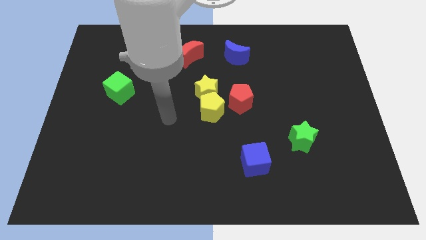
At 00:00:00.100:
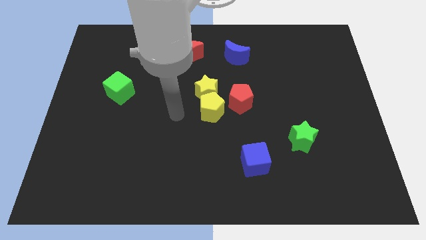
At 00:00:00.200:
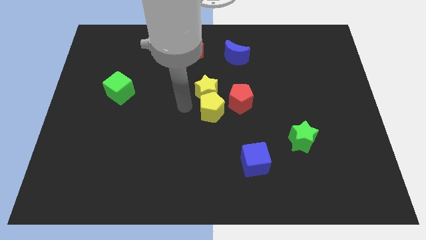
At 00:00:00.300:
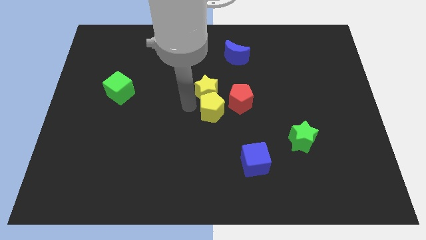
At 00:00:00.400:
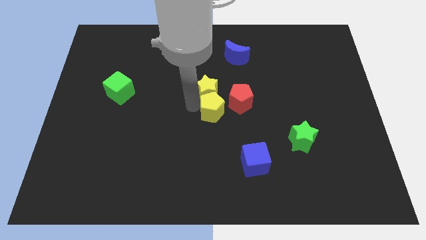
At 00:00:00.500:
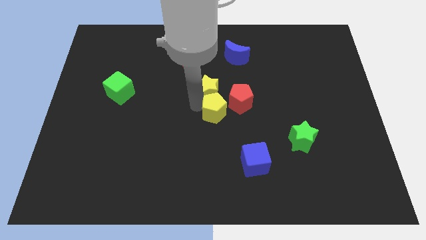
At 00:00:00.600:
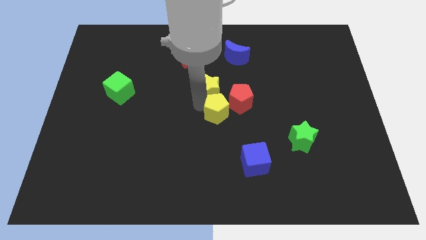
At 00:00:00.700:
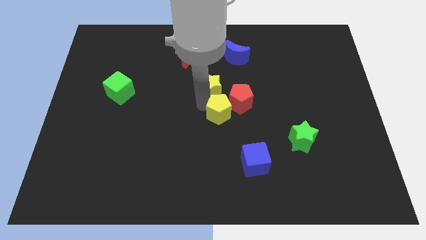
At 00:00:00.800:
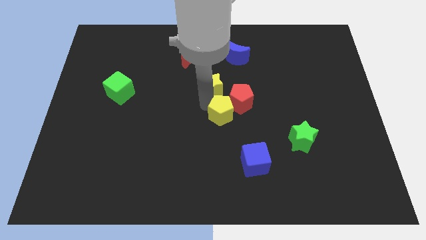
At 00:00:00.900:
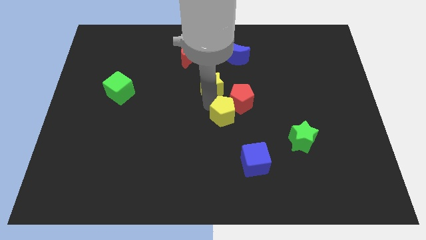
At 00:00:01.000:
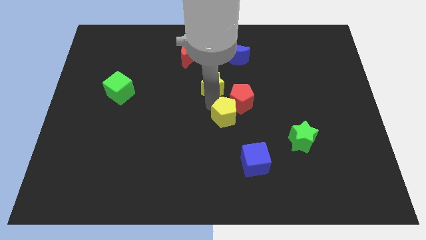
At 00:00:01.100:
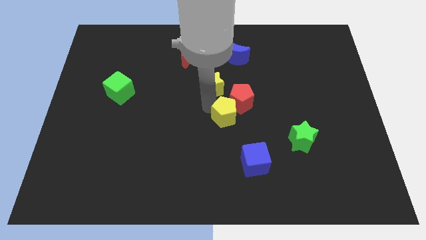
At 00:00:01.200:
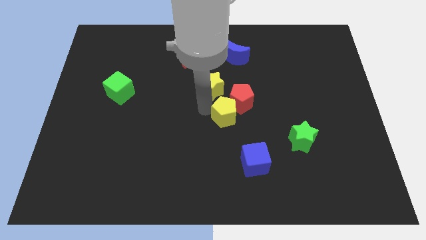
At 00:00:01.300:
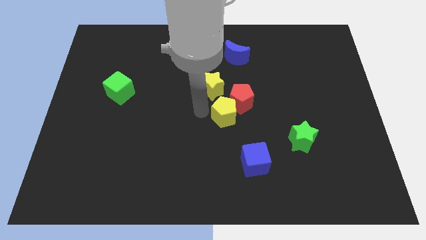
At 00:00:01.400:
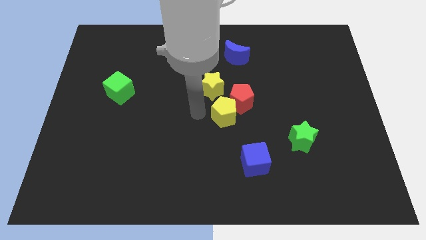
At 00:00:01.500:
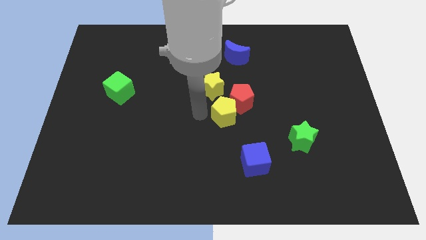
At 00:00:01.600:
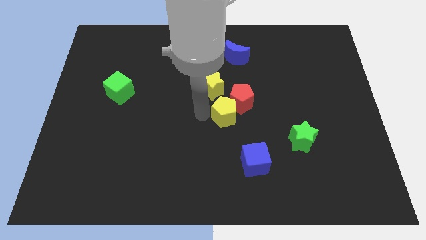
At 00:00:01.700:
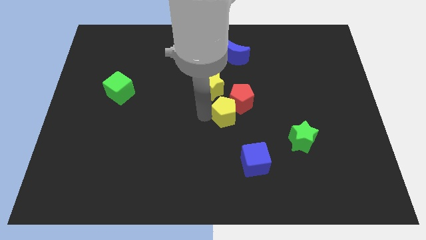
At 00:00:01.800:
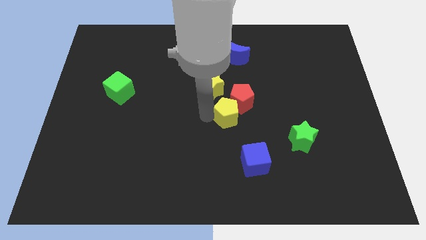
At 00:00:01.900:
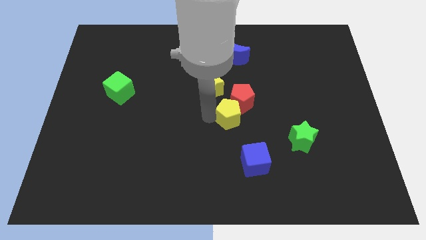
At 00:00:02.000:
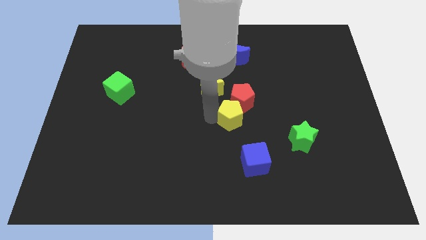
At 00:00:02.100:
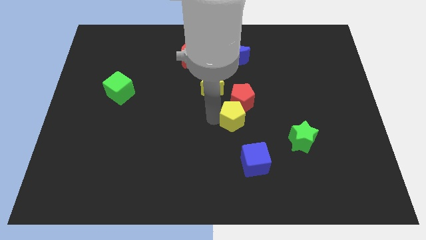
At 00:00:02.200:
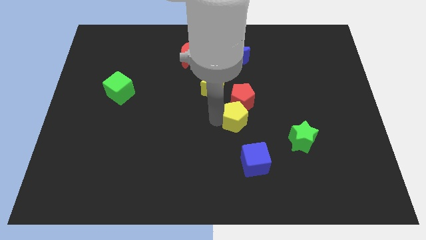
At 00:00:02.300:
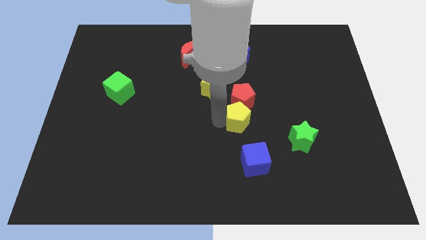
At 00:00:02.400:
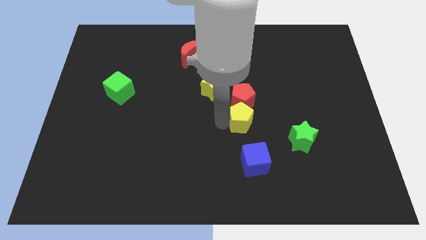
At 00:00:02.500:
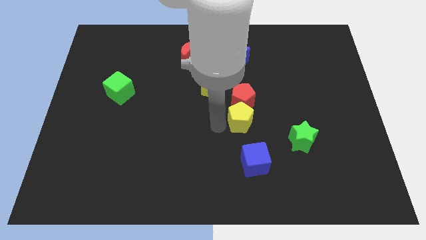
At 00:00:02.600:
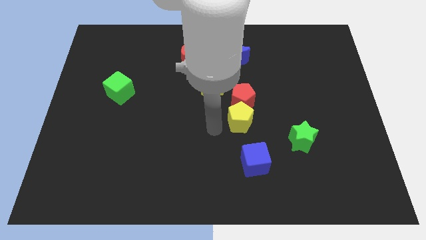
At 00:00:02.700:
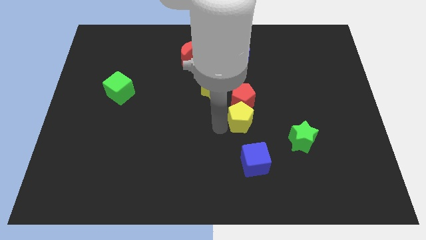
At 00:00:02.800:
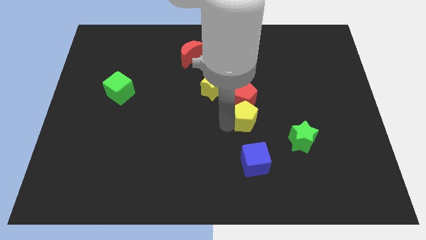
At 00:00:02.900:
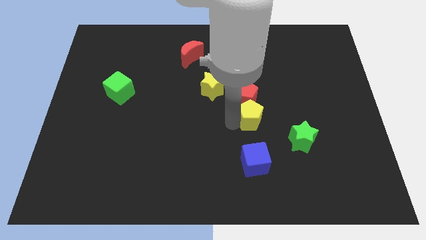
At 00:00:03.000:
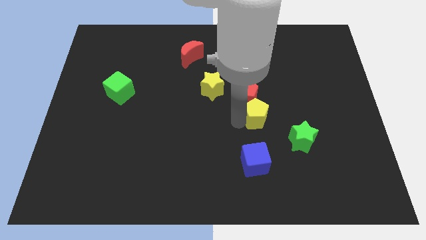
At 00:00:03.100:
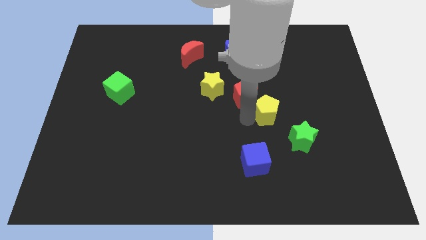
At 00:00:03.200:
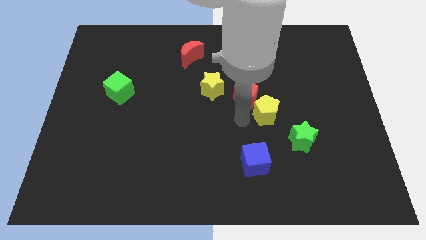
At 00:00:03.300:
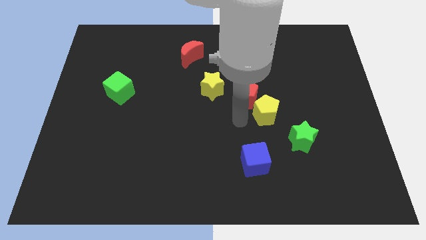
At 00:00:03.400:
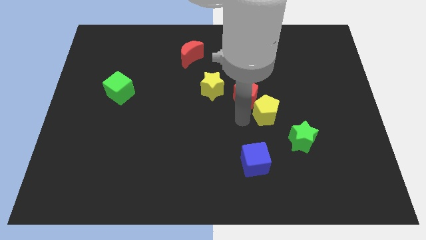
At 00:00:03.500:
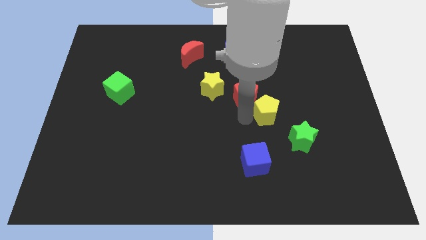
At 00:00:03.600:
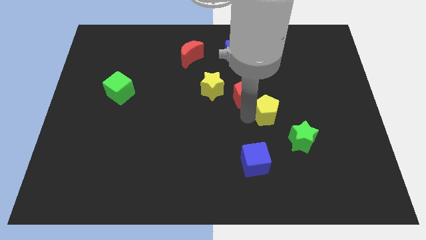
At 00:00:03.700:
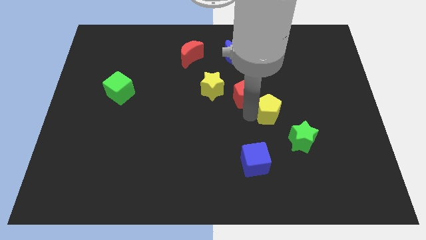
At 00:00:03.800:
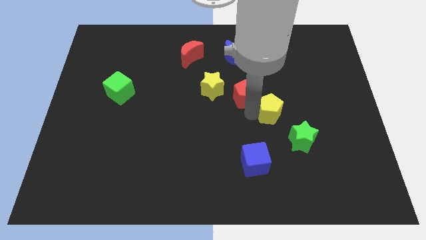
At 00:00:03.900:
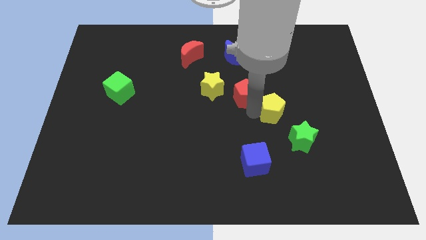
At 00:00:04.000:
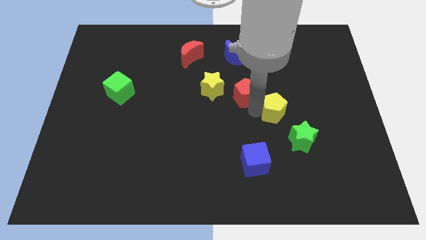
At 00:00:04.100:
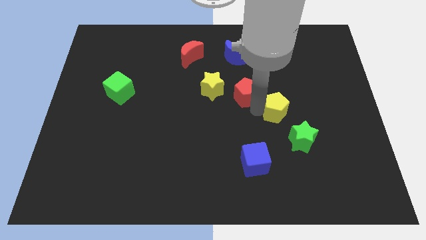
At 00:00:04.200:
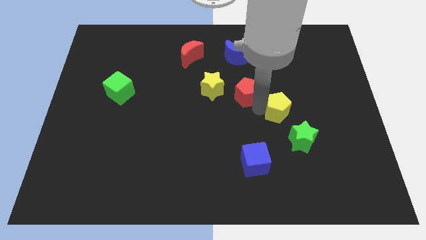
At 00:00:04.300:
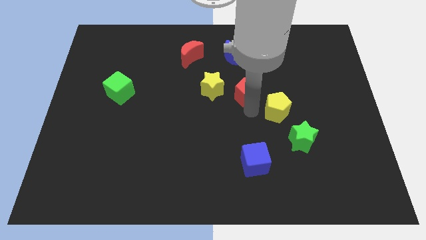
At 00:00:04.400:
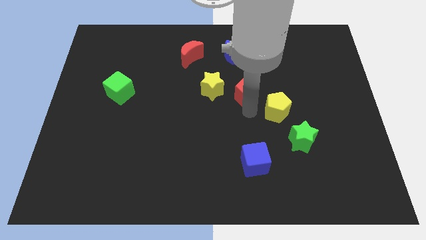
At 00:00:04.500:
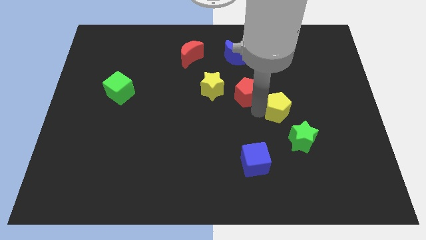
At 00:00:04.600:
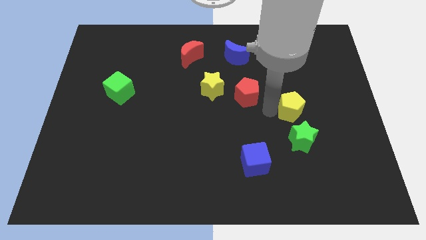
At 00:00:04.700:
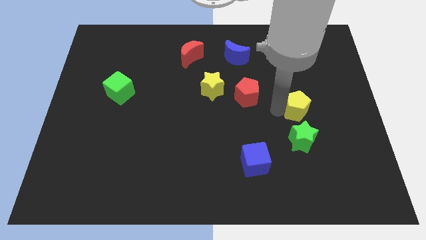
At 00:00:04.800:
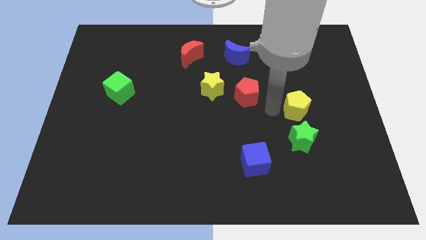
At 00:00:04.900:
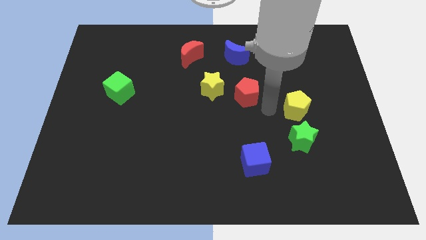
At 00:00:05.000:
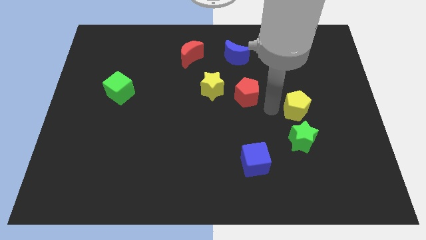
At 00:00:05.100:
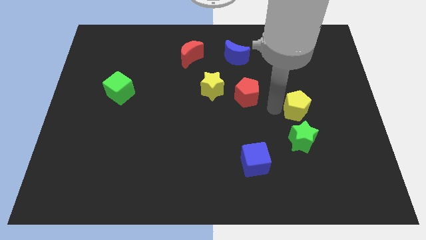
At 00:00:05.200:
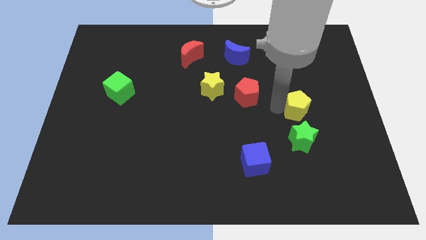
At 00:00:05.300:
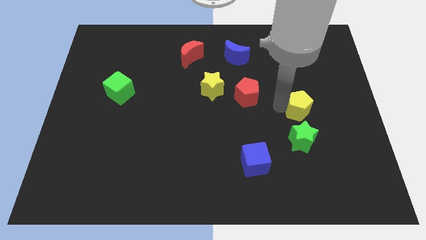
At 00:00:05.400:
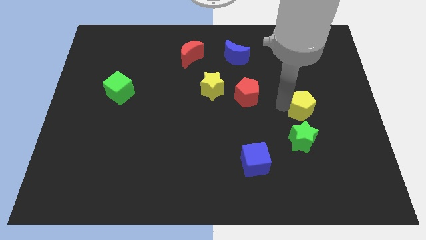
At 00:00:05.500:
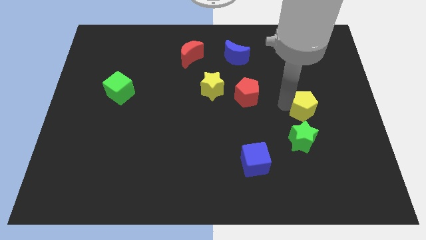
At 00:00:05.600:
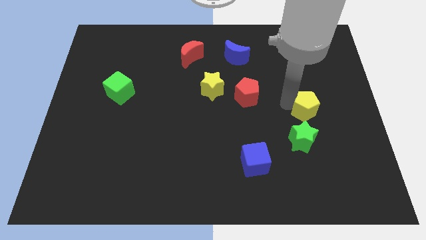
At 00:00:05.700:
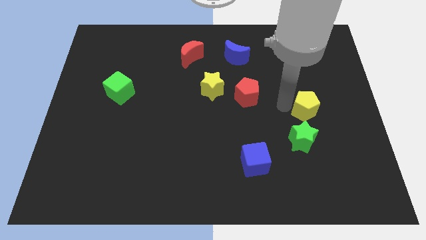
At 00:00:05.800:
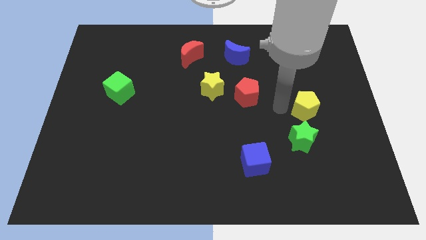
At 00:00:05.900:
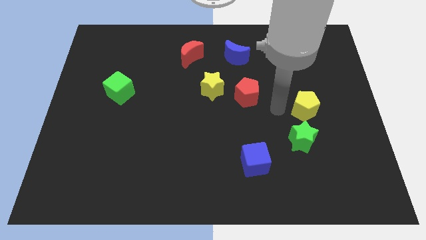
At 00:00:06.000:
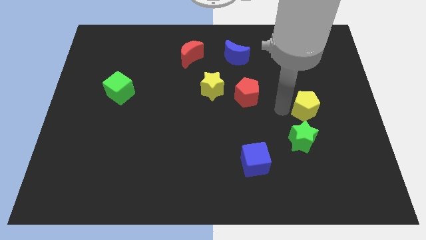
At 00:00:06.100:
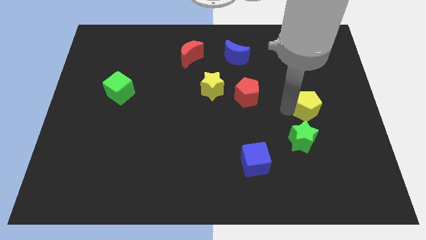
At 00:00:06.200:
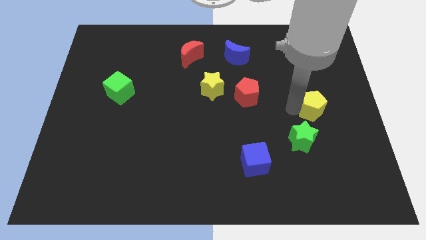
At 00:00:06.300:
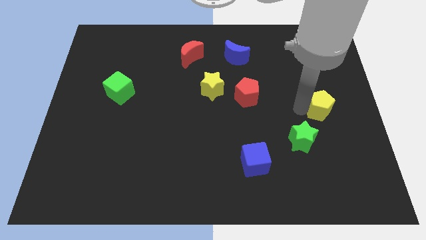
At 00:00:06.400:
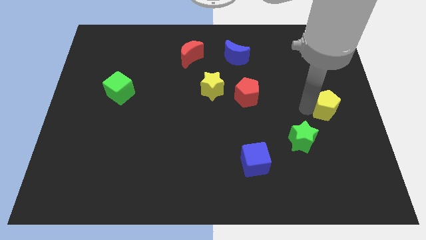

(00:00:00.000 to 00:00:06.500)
put the yellow pentagon to the center right

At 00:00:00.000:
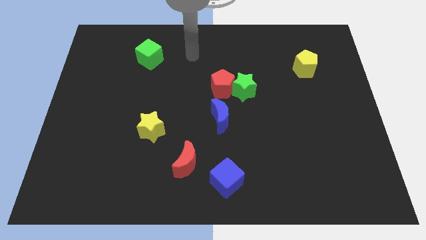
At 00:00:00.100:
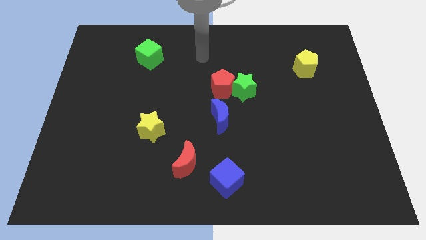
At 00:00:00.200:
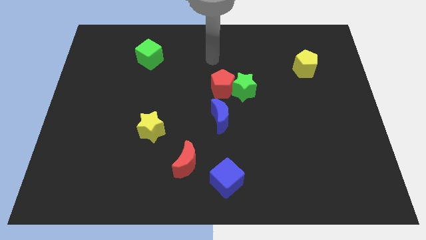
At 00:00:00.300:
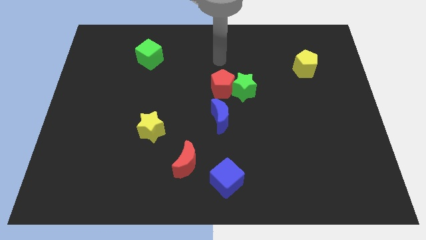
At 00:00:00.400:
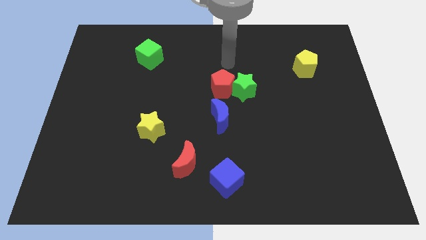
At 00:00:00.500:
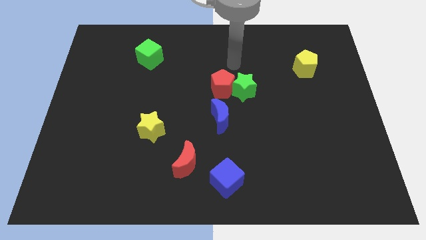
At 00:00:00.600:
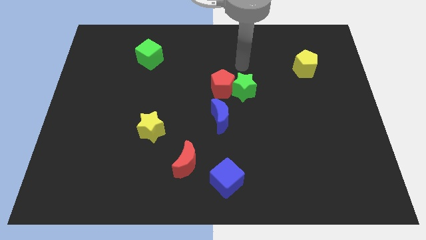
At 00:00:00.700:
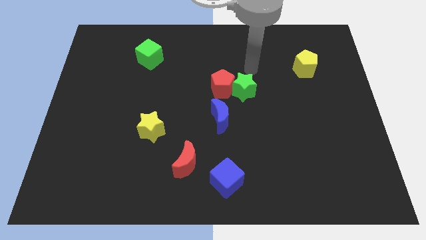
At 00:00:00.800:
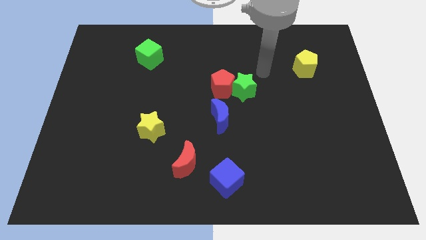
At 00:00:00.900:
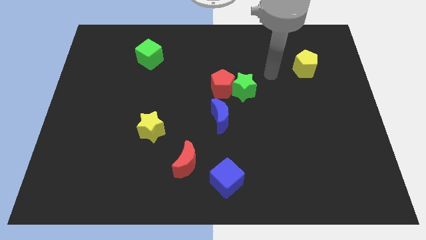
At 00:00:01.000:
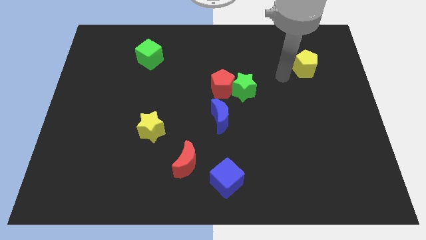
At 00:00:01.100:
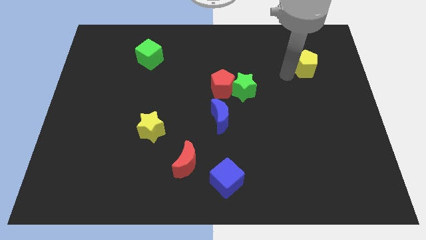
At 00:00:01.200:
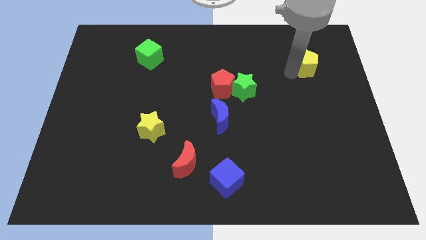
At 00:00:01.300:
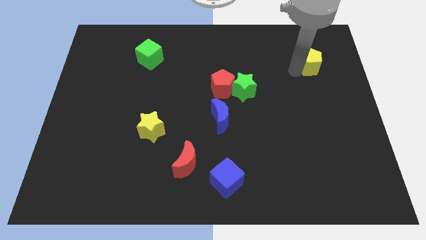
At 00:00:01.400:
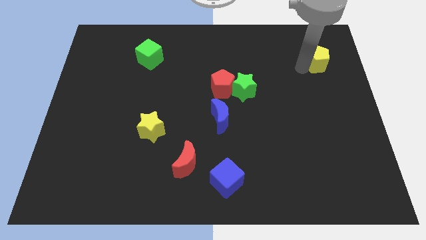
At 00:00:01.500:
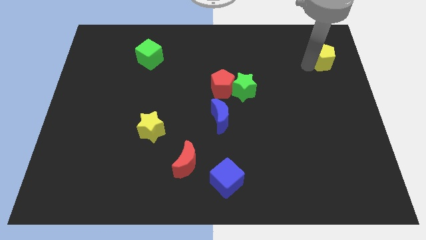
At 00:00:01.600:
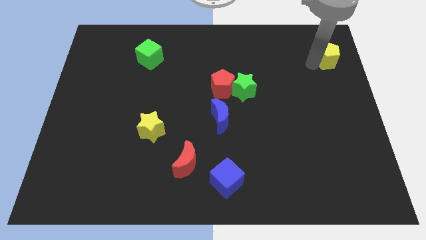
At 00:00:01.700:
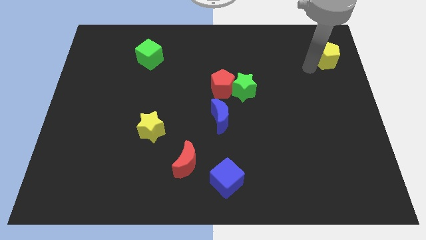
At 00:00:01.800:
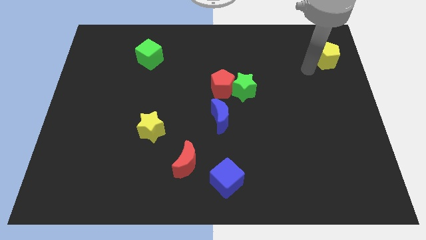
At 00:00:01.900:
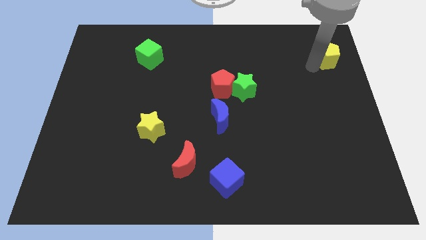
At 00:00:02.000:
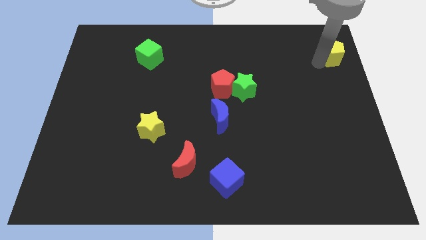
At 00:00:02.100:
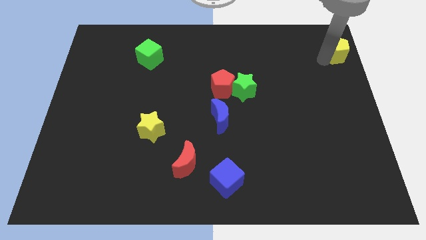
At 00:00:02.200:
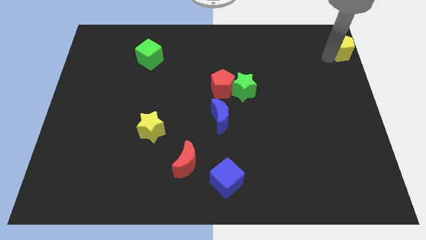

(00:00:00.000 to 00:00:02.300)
push the yellow pentagon to the top right of the board
